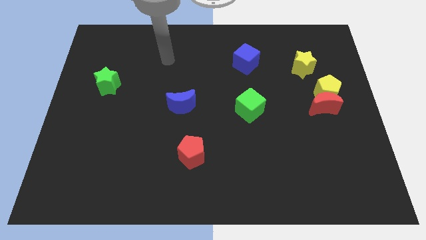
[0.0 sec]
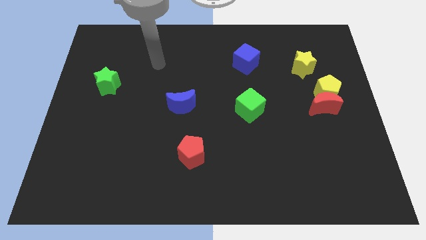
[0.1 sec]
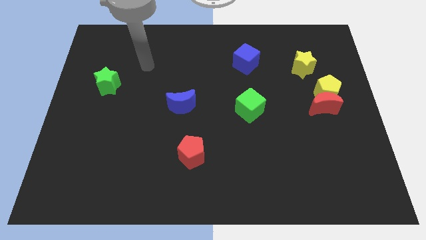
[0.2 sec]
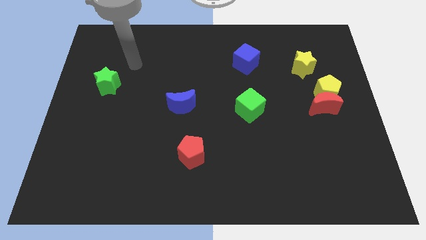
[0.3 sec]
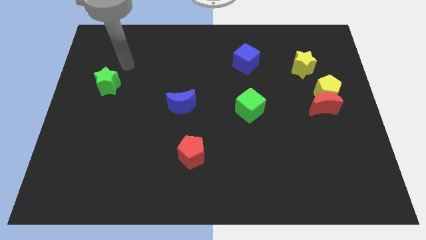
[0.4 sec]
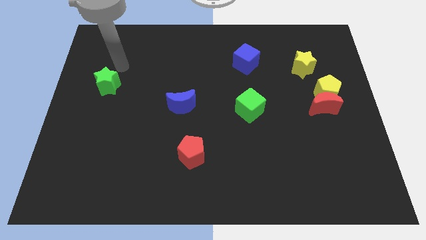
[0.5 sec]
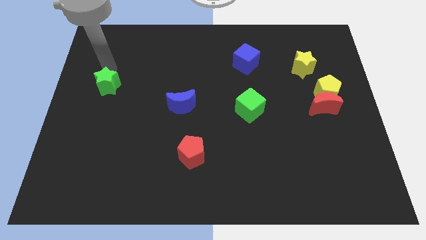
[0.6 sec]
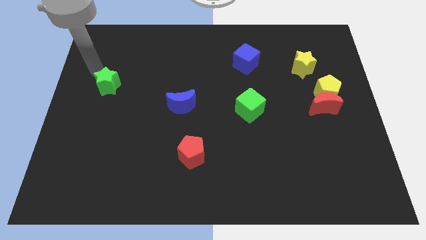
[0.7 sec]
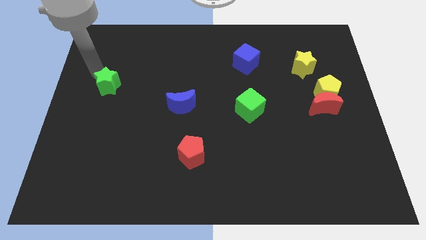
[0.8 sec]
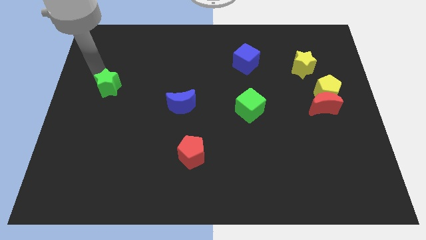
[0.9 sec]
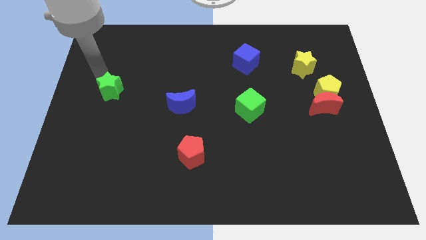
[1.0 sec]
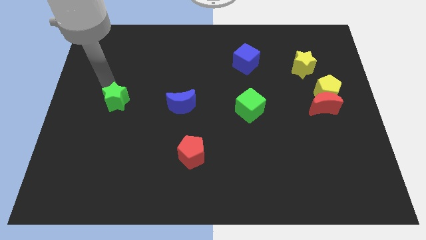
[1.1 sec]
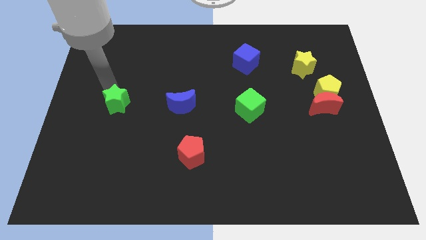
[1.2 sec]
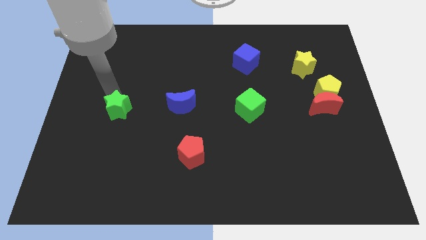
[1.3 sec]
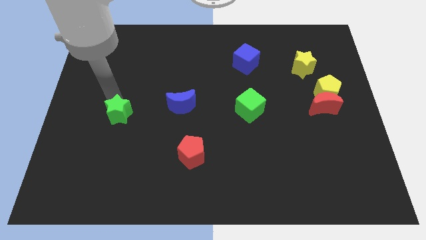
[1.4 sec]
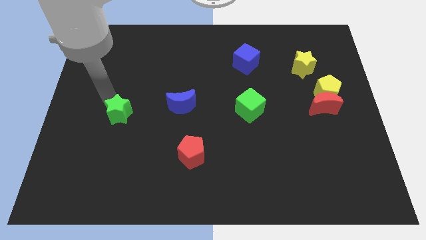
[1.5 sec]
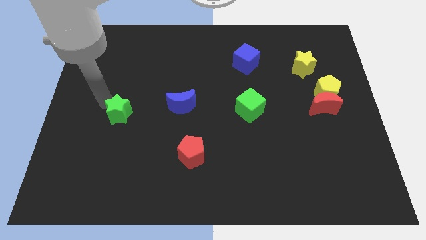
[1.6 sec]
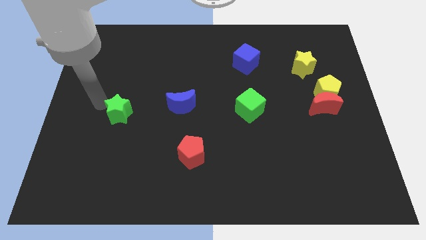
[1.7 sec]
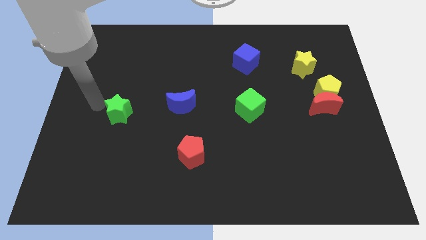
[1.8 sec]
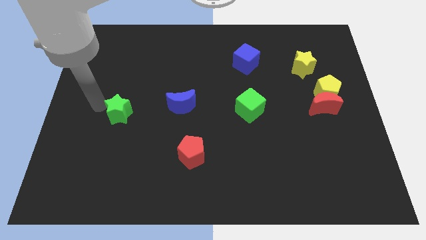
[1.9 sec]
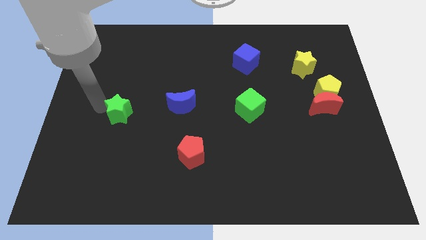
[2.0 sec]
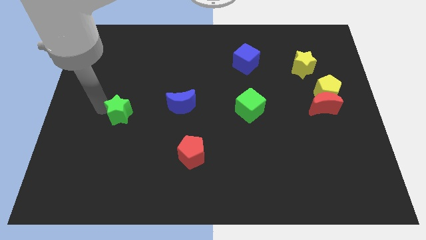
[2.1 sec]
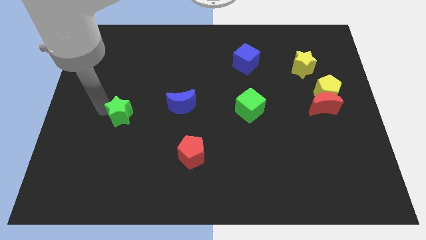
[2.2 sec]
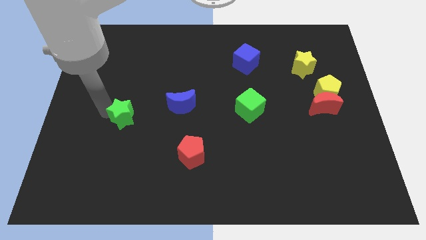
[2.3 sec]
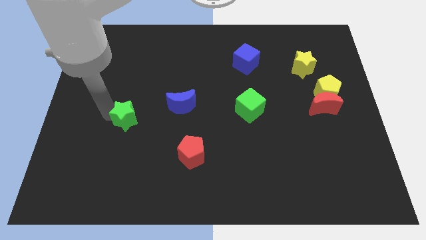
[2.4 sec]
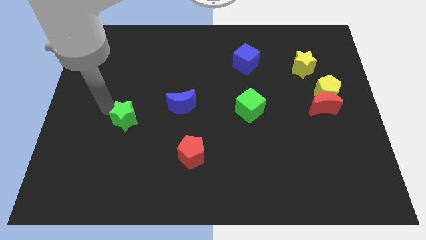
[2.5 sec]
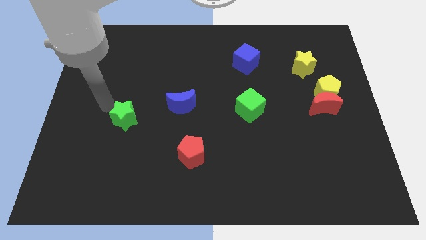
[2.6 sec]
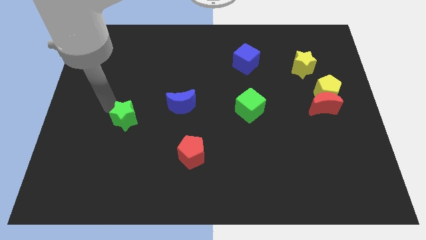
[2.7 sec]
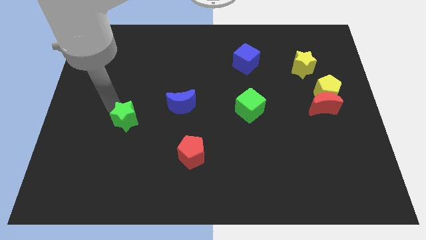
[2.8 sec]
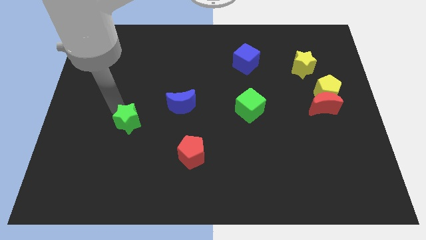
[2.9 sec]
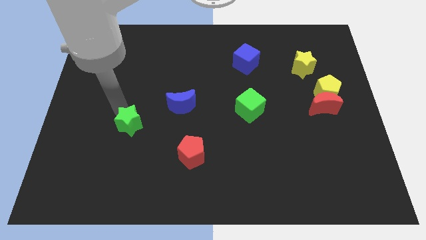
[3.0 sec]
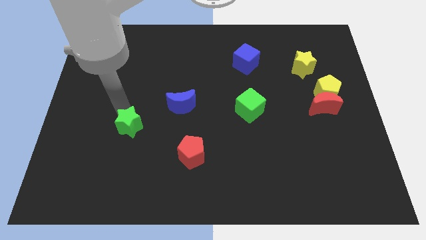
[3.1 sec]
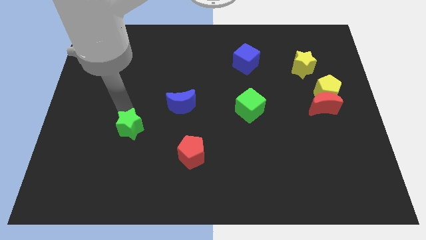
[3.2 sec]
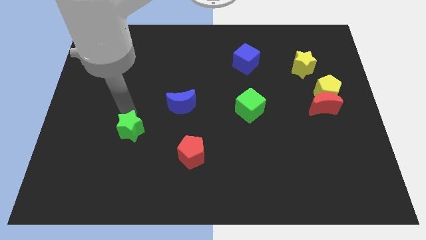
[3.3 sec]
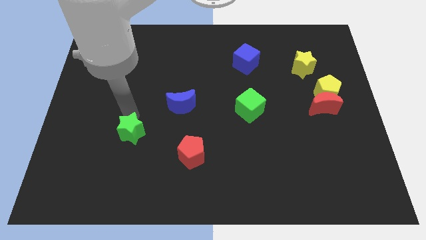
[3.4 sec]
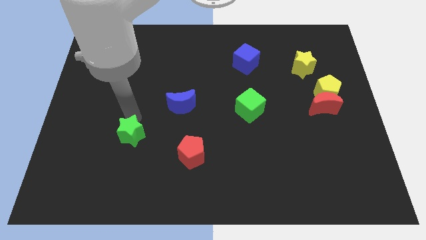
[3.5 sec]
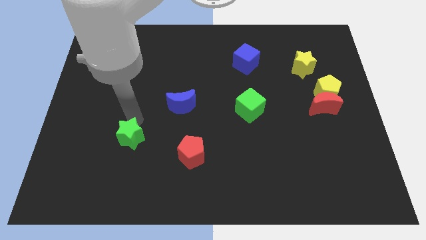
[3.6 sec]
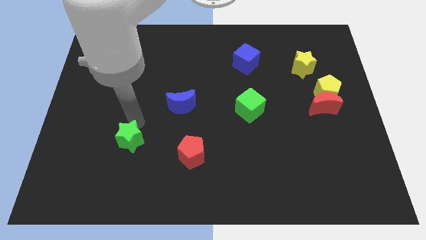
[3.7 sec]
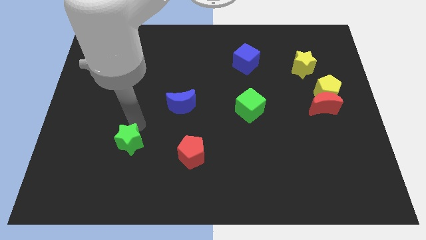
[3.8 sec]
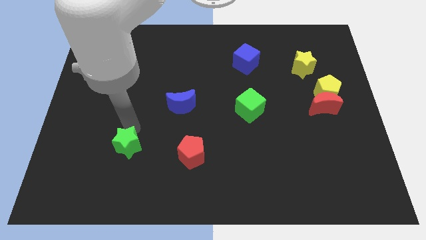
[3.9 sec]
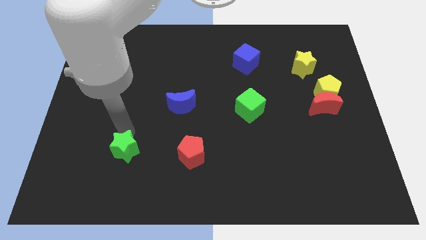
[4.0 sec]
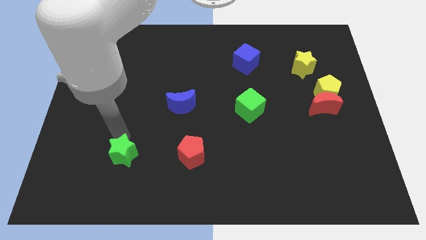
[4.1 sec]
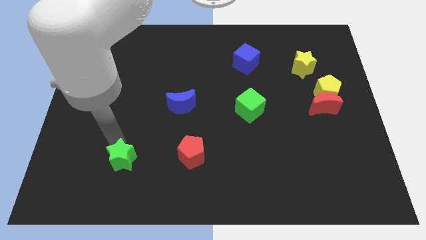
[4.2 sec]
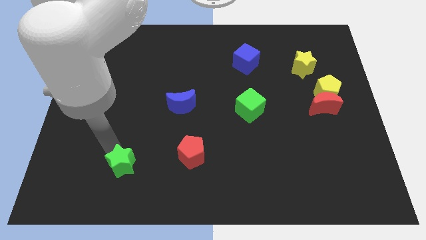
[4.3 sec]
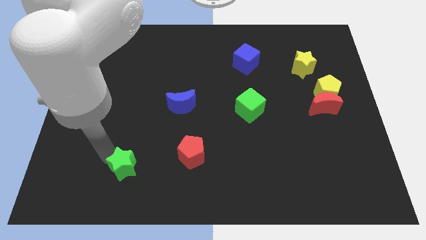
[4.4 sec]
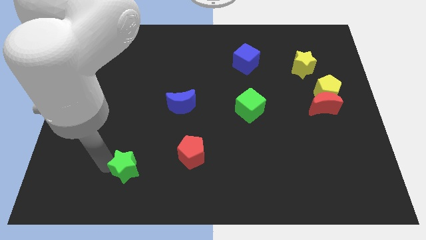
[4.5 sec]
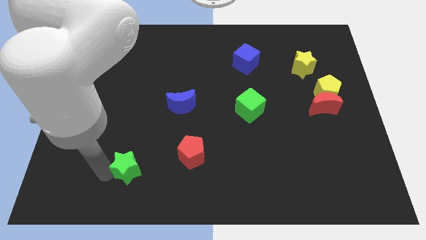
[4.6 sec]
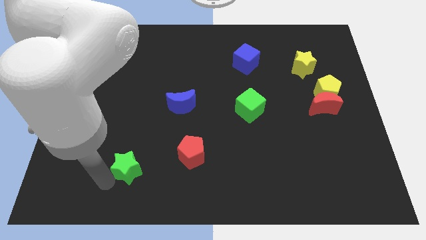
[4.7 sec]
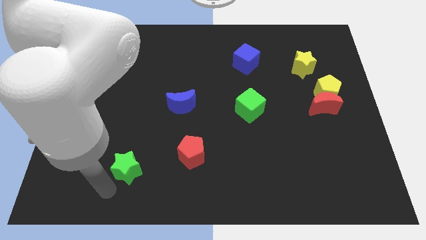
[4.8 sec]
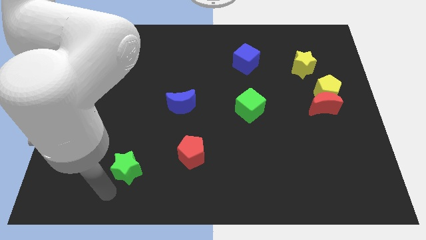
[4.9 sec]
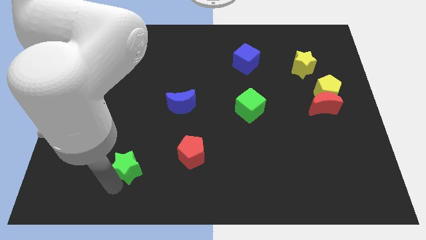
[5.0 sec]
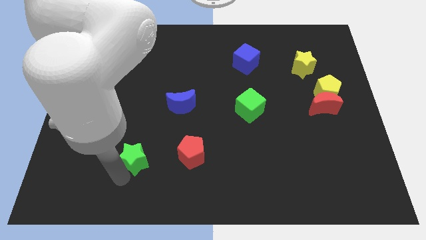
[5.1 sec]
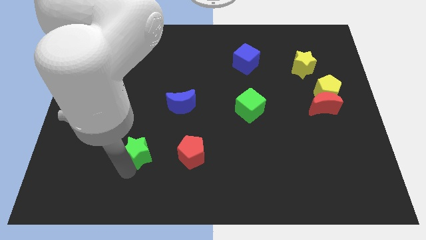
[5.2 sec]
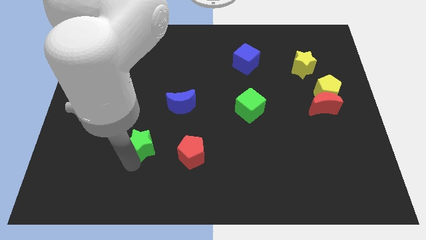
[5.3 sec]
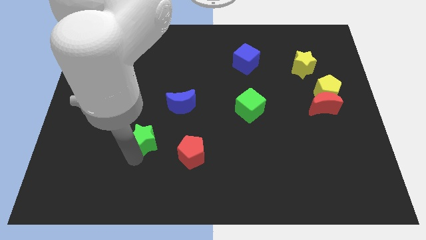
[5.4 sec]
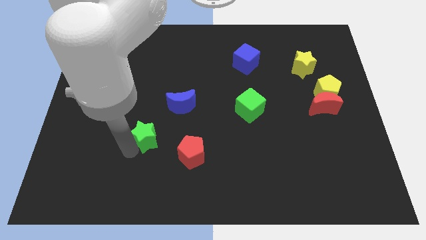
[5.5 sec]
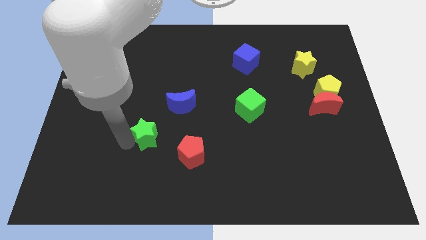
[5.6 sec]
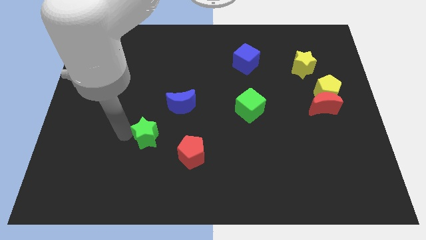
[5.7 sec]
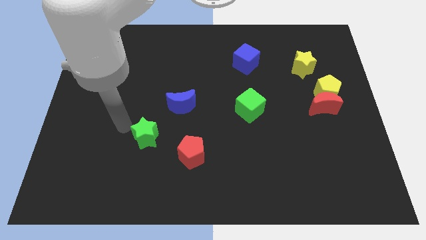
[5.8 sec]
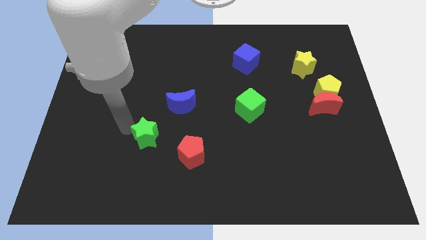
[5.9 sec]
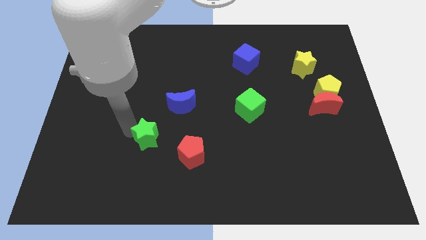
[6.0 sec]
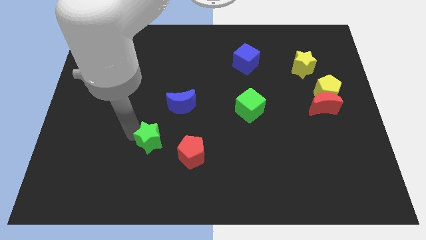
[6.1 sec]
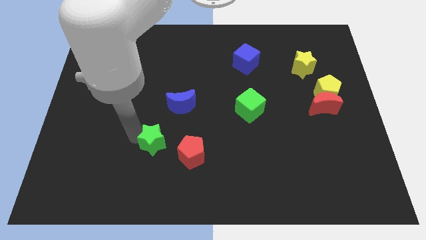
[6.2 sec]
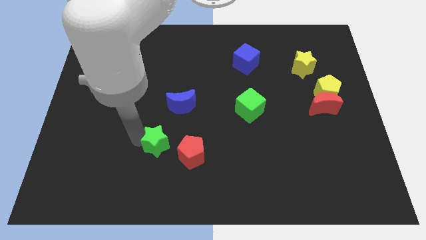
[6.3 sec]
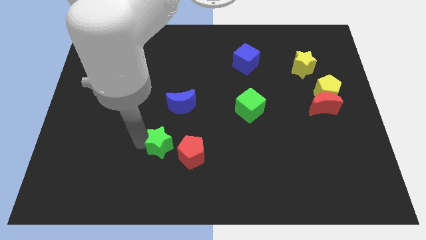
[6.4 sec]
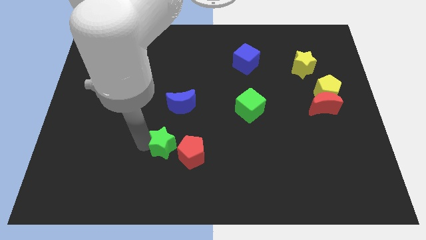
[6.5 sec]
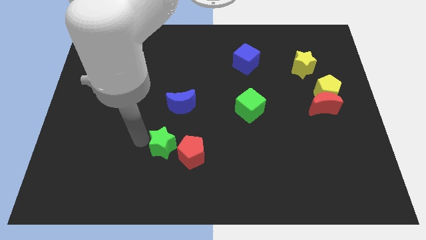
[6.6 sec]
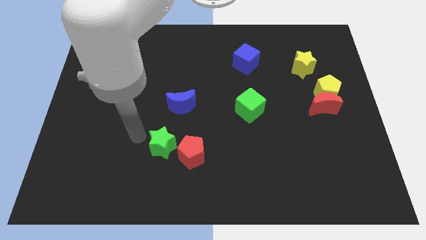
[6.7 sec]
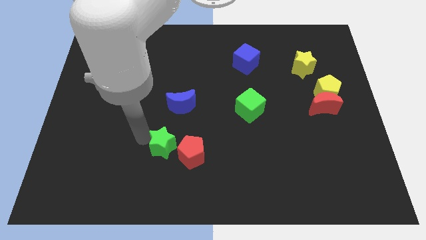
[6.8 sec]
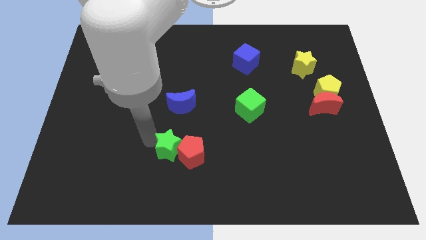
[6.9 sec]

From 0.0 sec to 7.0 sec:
move the green star close to the red pentagon

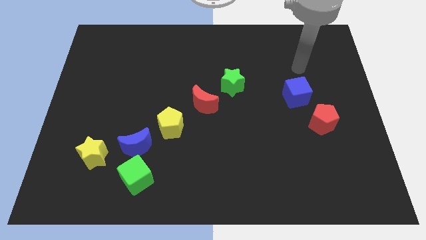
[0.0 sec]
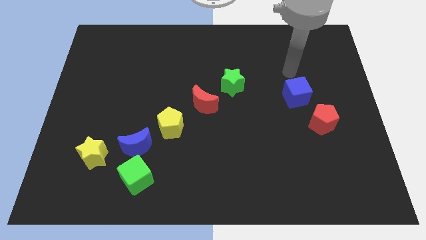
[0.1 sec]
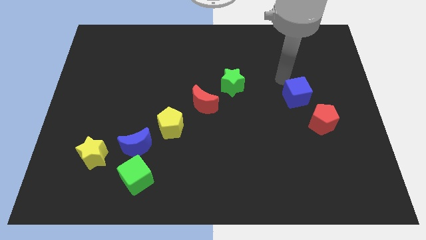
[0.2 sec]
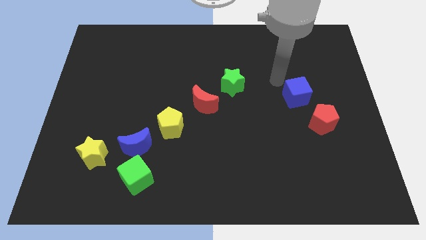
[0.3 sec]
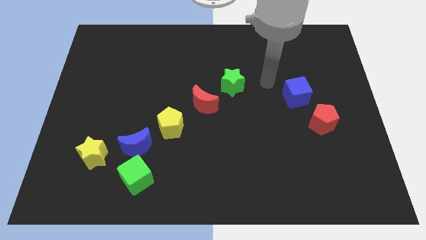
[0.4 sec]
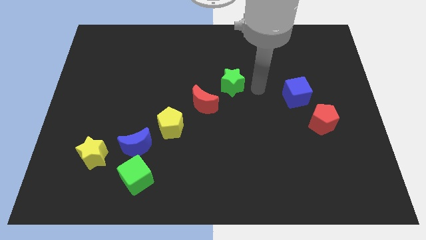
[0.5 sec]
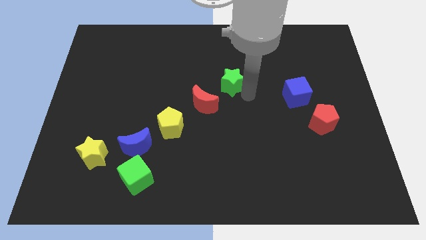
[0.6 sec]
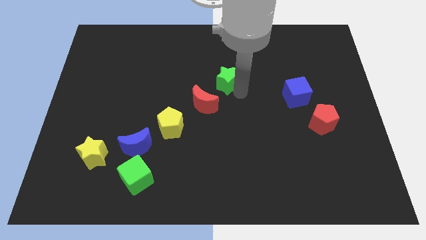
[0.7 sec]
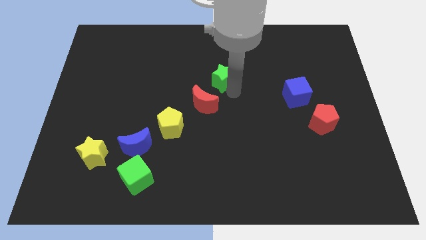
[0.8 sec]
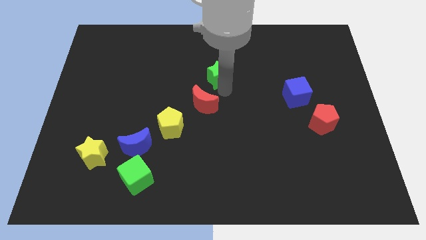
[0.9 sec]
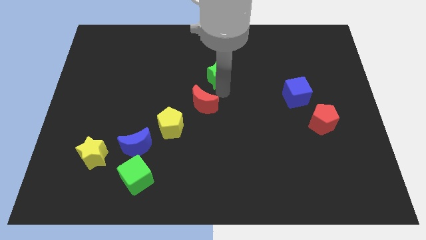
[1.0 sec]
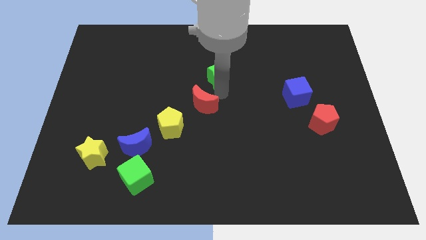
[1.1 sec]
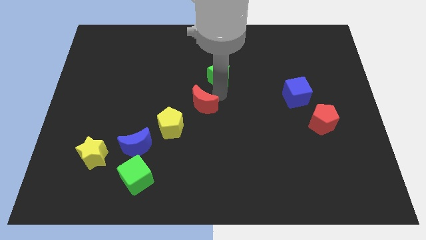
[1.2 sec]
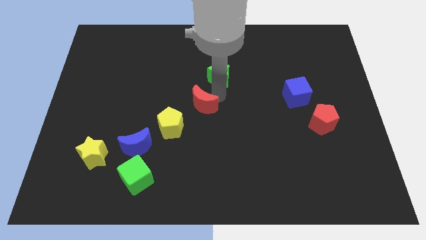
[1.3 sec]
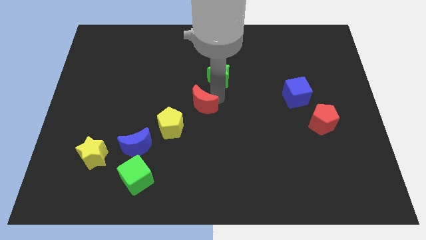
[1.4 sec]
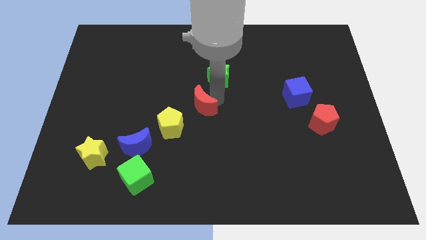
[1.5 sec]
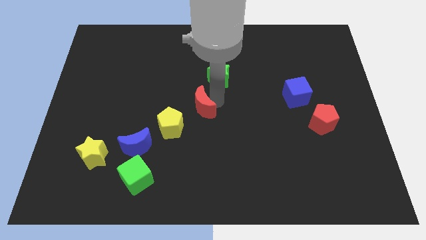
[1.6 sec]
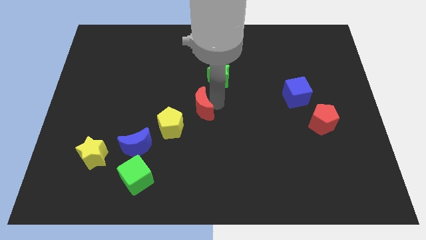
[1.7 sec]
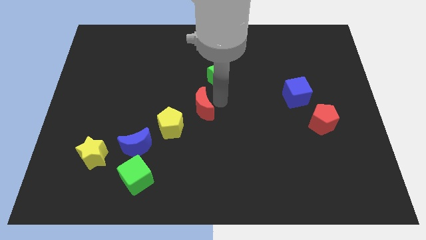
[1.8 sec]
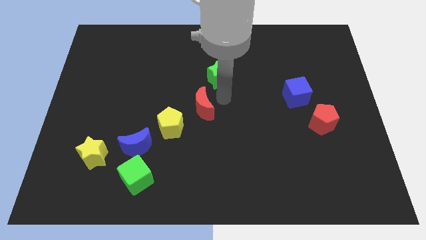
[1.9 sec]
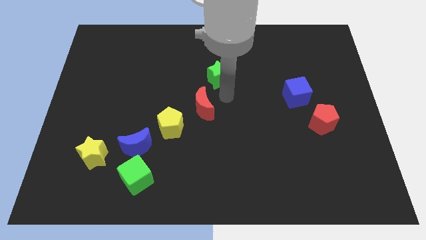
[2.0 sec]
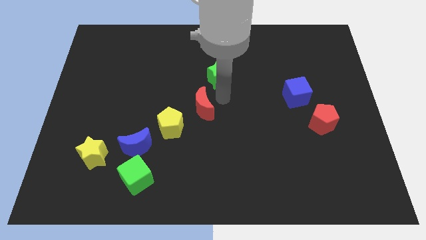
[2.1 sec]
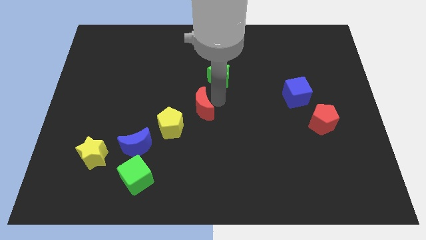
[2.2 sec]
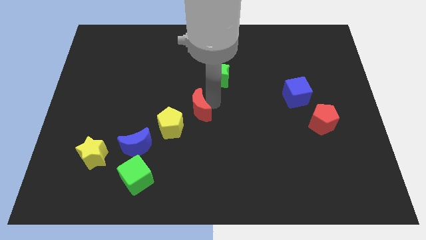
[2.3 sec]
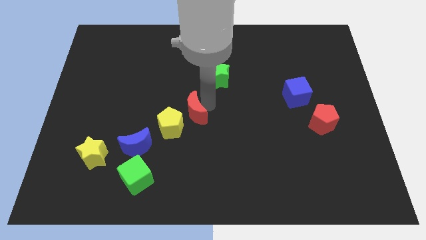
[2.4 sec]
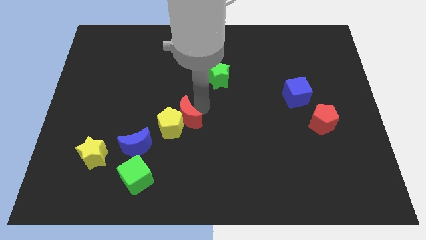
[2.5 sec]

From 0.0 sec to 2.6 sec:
slide the red moon close to the yellow pentagon
